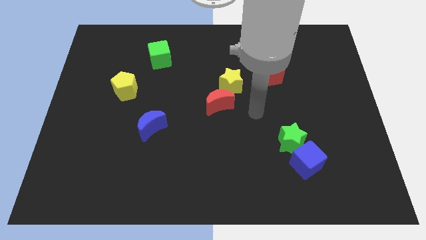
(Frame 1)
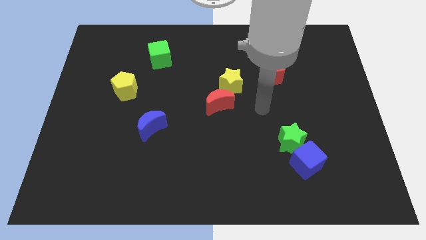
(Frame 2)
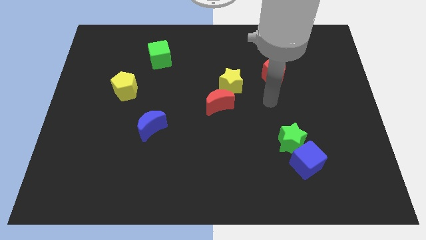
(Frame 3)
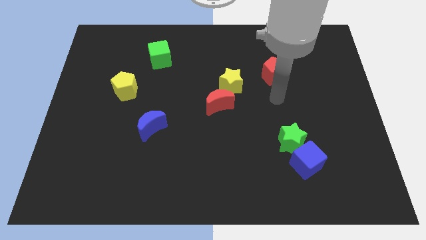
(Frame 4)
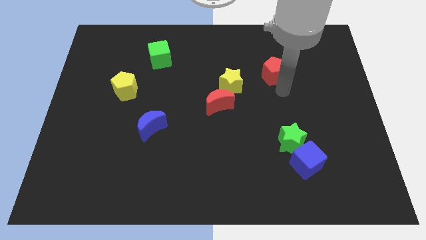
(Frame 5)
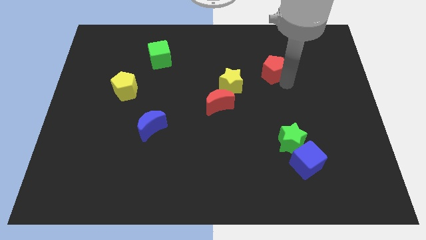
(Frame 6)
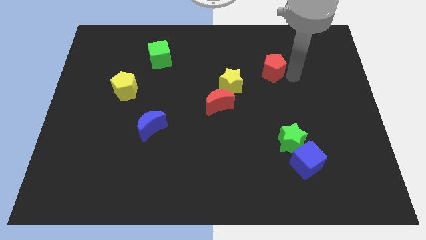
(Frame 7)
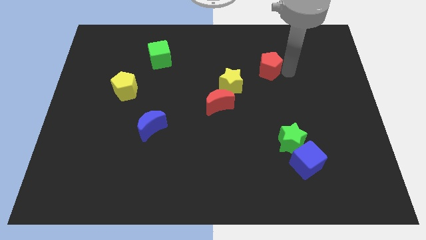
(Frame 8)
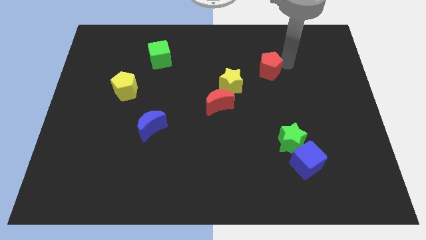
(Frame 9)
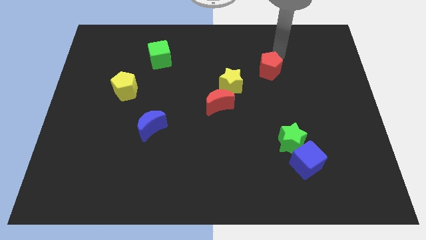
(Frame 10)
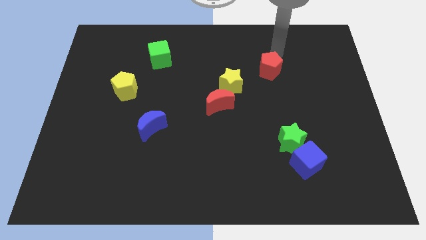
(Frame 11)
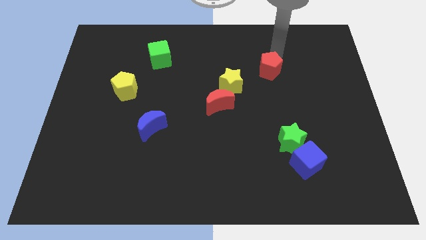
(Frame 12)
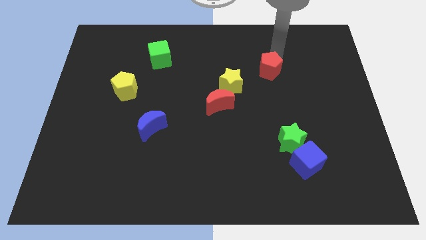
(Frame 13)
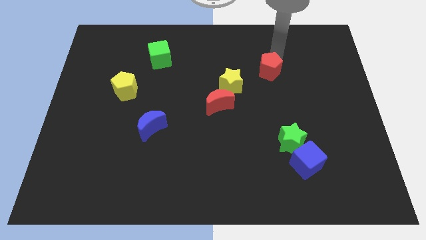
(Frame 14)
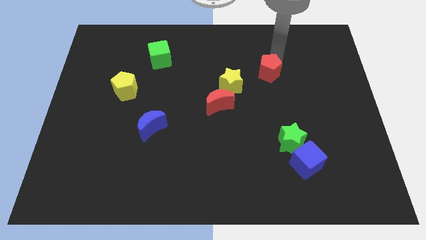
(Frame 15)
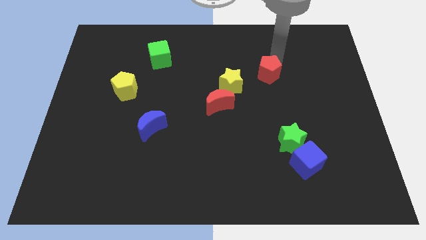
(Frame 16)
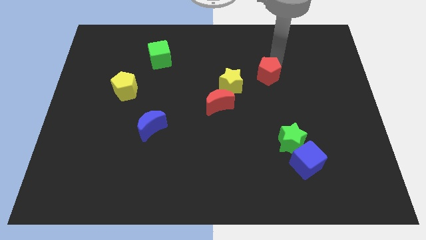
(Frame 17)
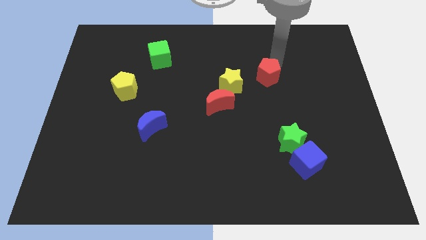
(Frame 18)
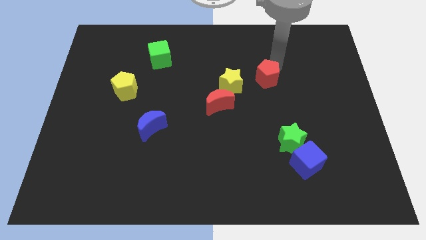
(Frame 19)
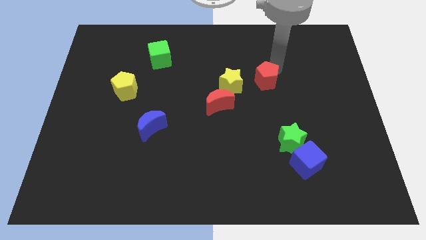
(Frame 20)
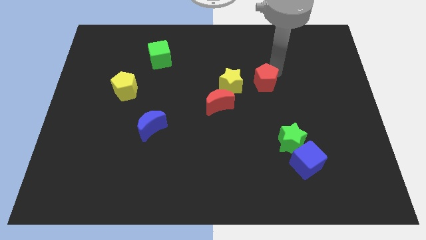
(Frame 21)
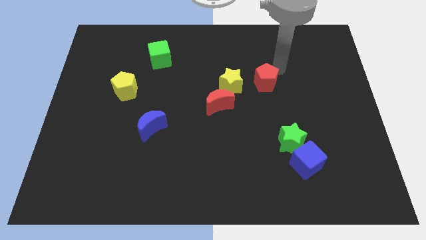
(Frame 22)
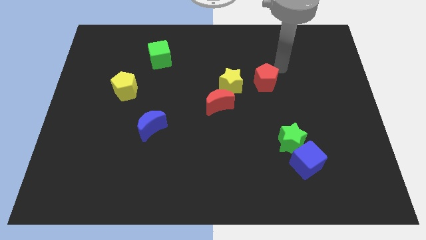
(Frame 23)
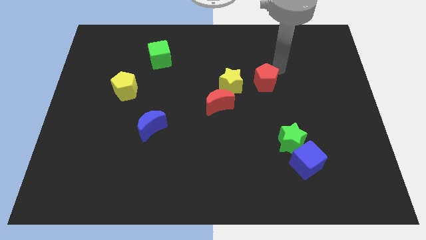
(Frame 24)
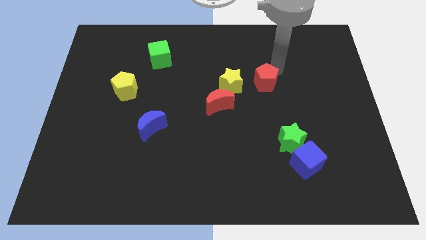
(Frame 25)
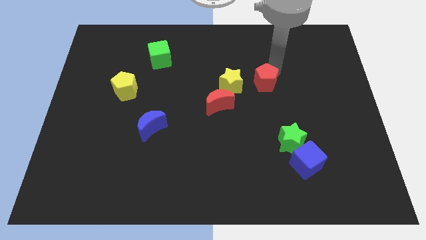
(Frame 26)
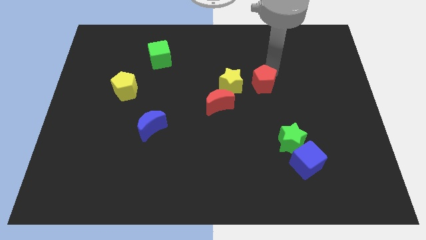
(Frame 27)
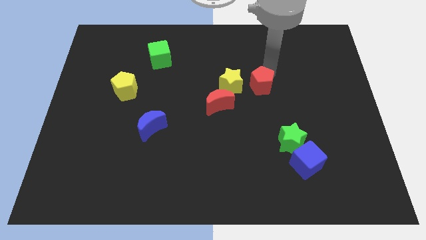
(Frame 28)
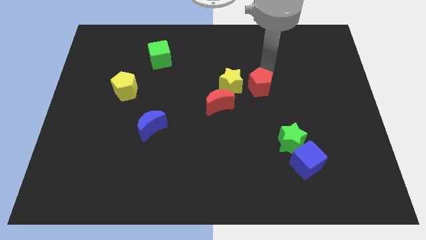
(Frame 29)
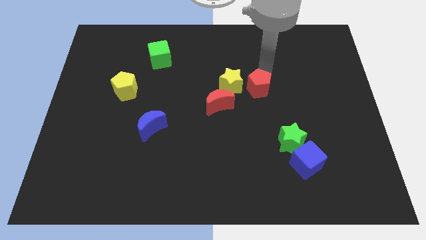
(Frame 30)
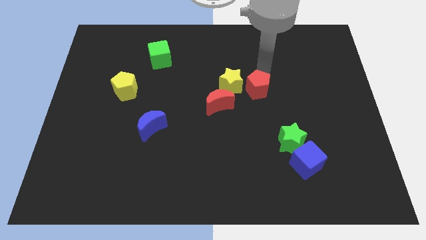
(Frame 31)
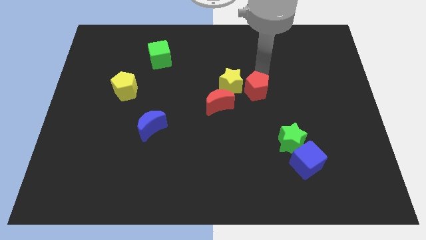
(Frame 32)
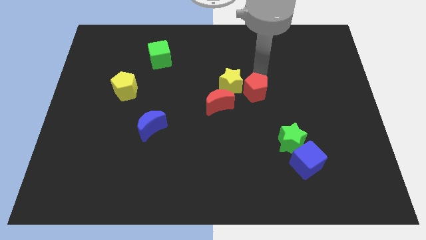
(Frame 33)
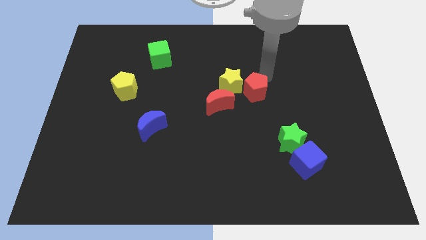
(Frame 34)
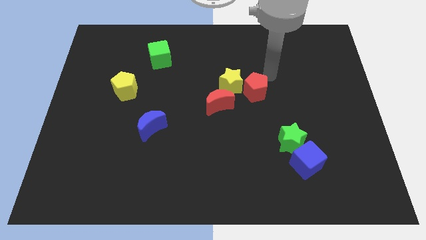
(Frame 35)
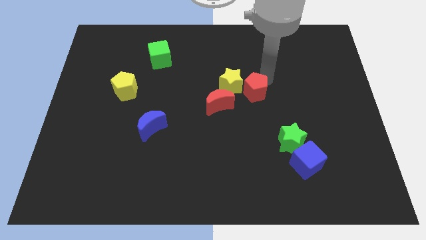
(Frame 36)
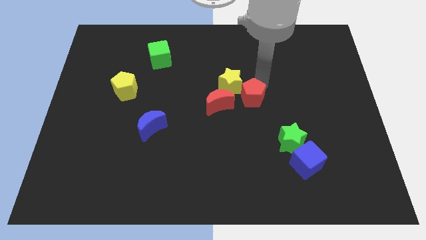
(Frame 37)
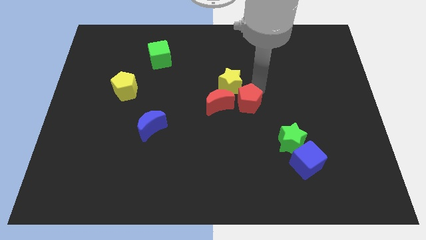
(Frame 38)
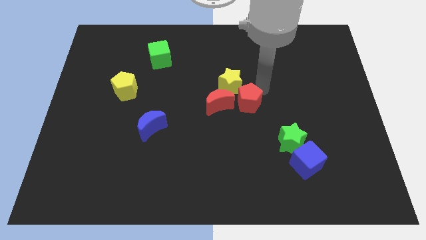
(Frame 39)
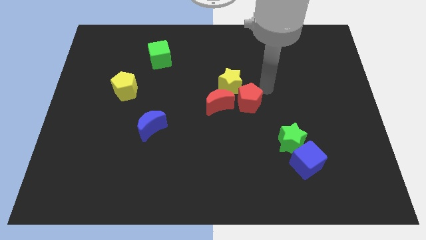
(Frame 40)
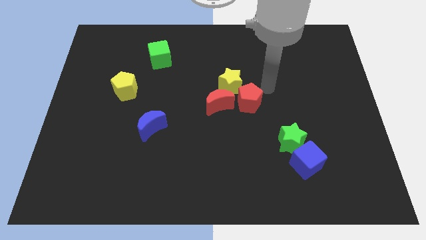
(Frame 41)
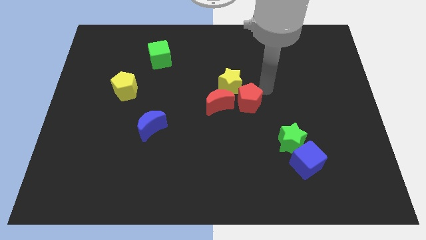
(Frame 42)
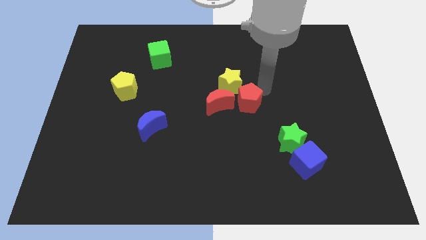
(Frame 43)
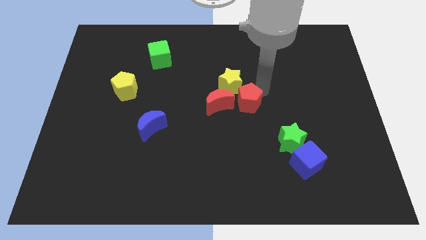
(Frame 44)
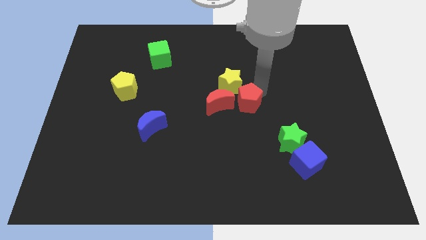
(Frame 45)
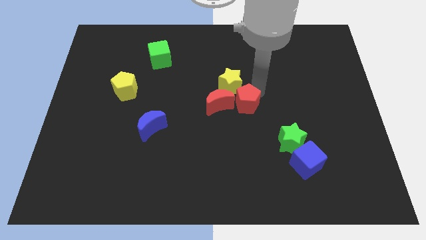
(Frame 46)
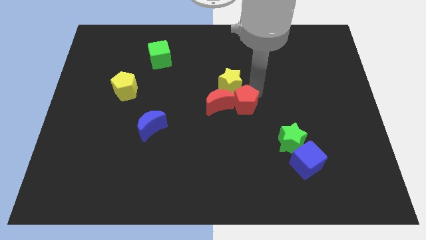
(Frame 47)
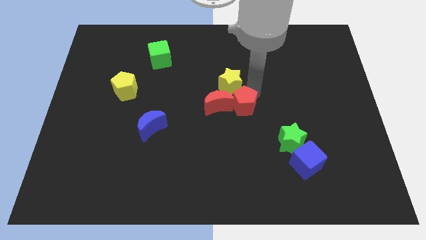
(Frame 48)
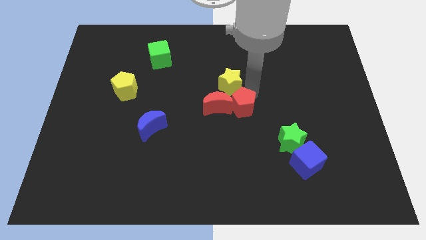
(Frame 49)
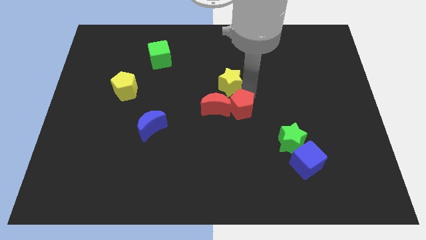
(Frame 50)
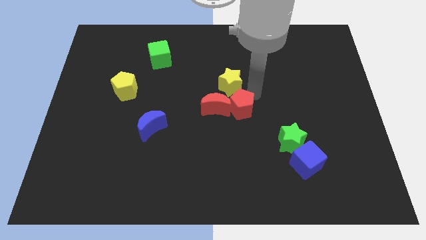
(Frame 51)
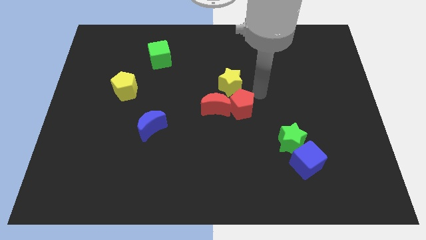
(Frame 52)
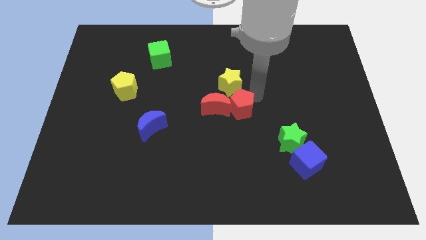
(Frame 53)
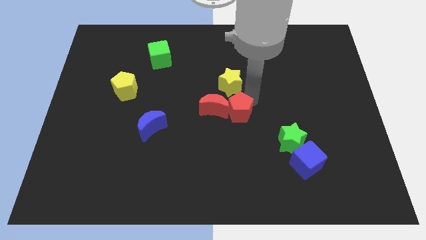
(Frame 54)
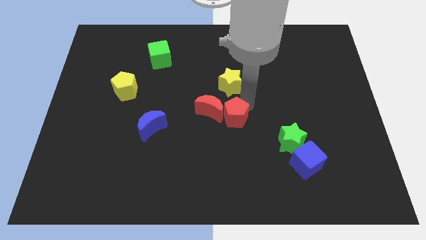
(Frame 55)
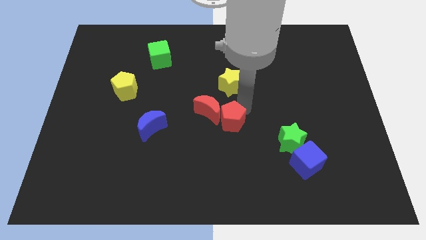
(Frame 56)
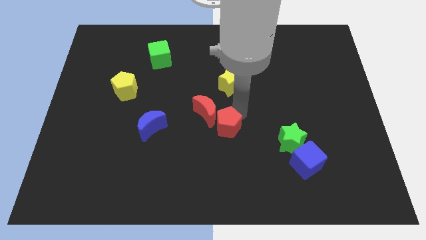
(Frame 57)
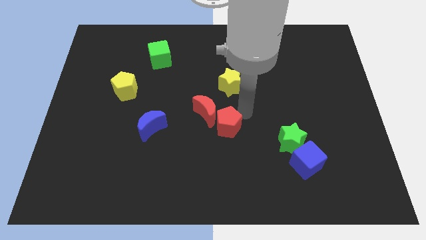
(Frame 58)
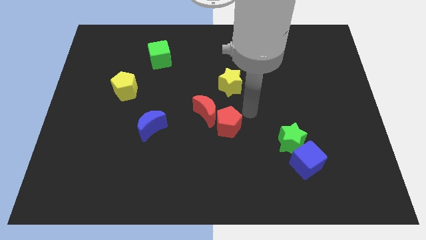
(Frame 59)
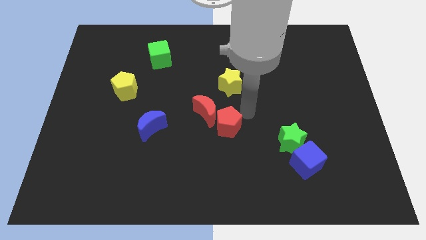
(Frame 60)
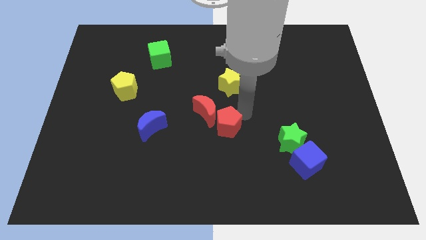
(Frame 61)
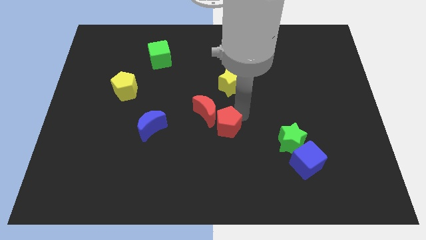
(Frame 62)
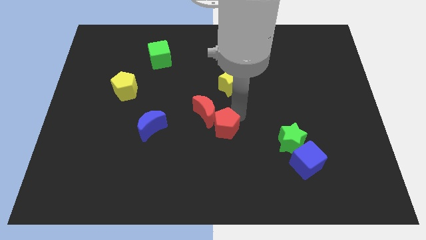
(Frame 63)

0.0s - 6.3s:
slide the red pentagon downwards and to the left diagonally

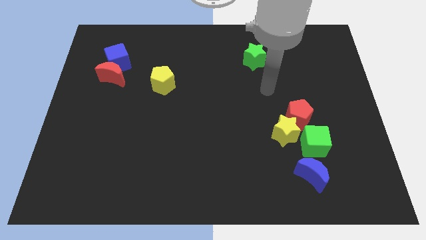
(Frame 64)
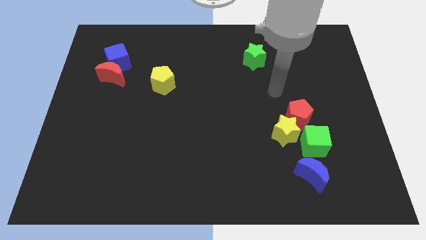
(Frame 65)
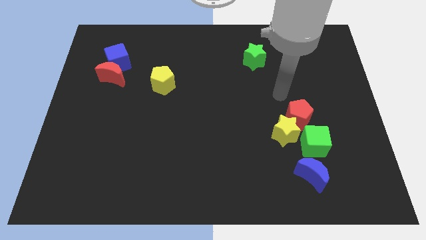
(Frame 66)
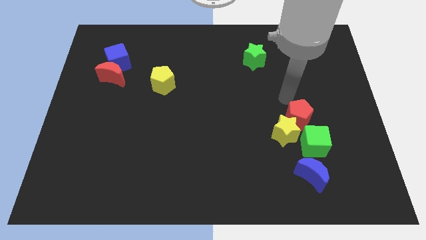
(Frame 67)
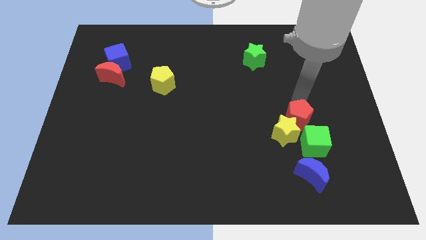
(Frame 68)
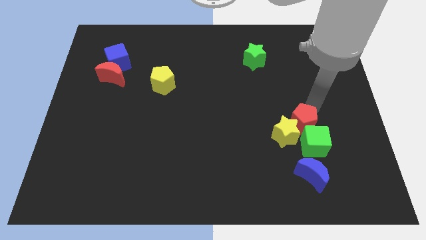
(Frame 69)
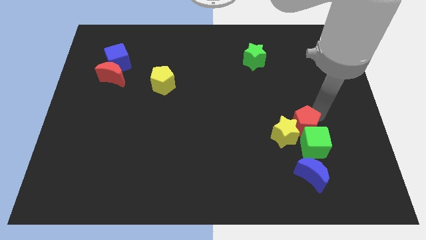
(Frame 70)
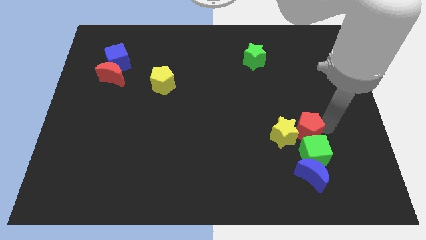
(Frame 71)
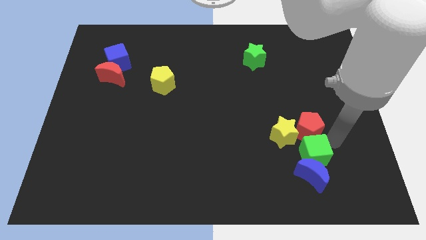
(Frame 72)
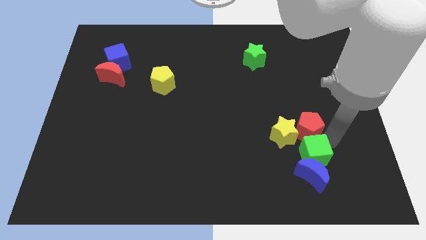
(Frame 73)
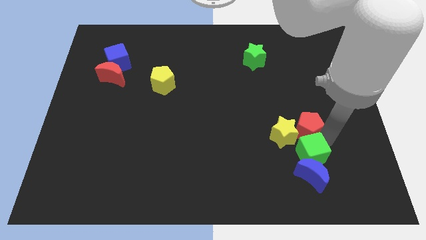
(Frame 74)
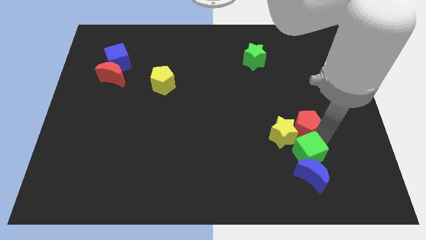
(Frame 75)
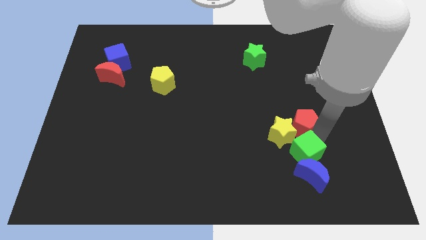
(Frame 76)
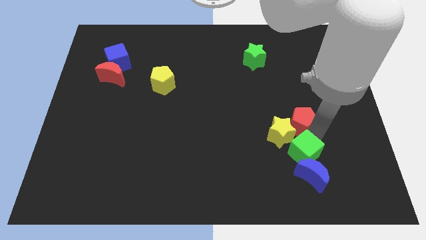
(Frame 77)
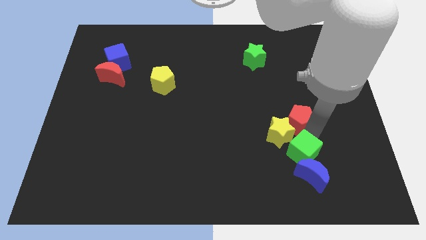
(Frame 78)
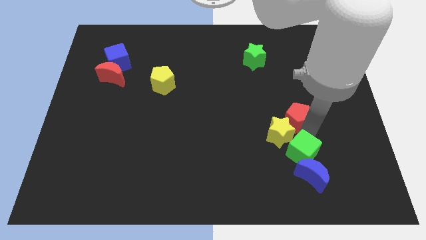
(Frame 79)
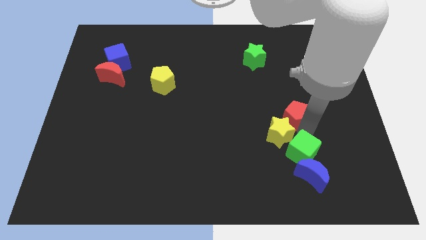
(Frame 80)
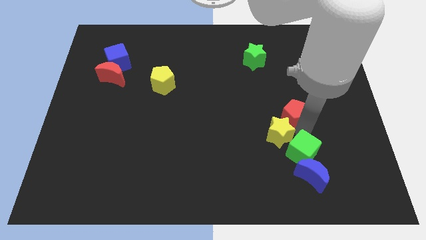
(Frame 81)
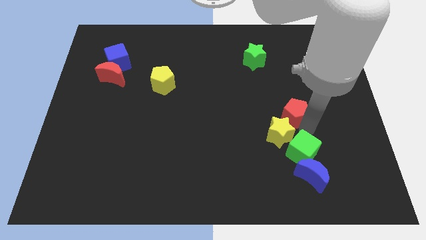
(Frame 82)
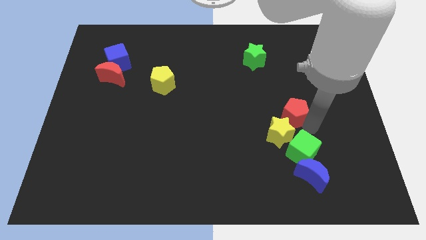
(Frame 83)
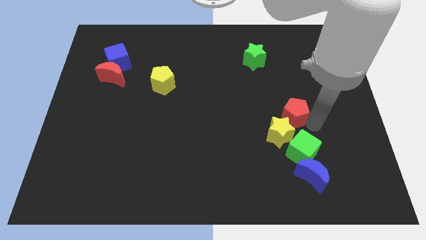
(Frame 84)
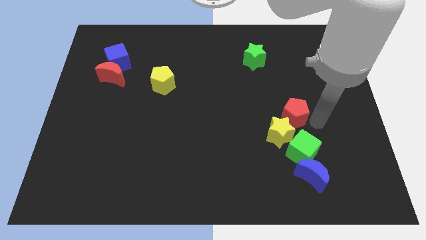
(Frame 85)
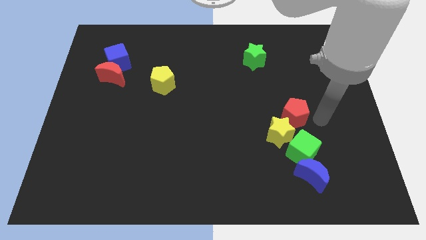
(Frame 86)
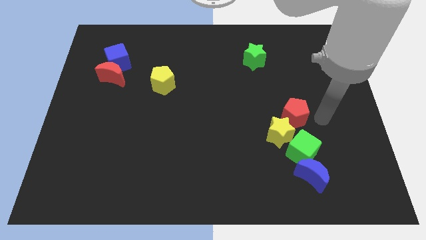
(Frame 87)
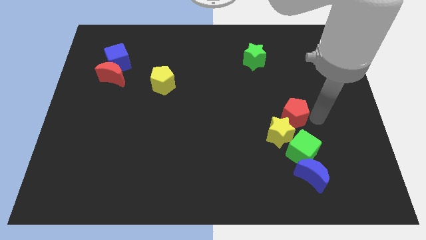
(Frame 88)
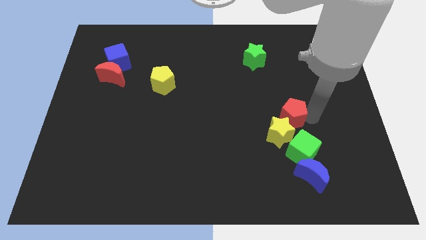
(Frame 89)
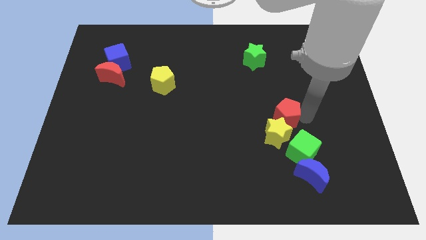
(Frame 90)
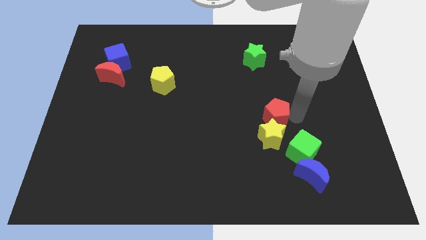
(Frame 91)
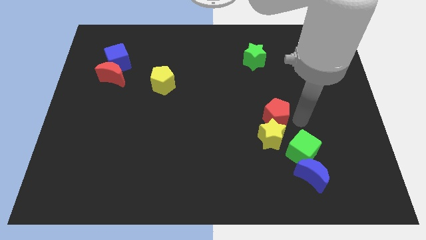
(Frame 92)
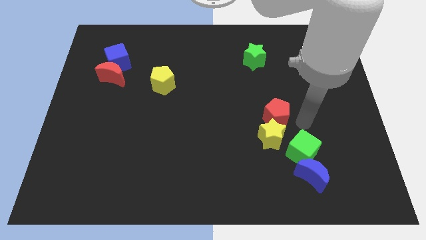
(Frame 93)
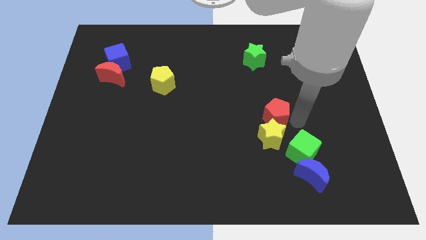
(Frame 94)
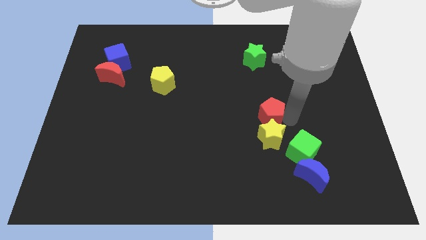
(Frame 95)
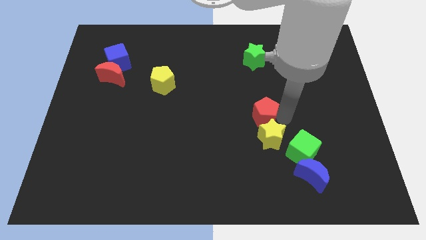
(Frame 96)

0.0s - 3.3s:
slightly move the red pentagon left
